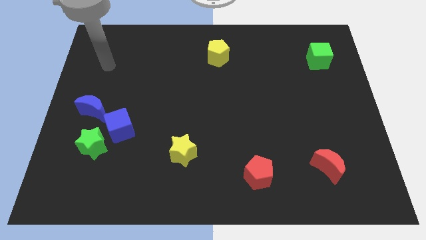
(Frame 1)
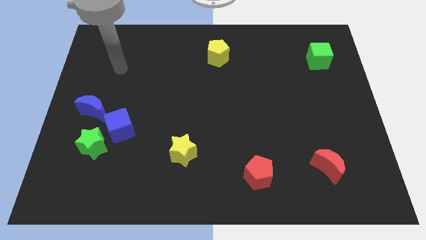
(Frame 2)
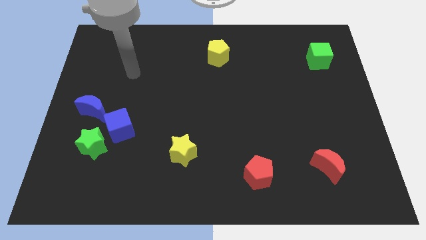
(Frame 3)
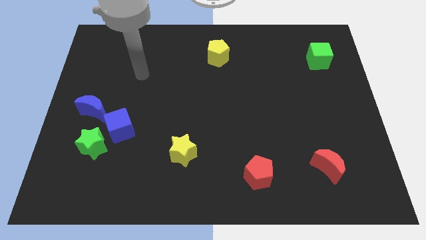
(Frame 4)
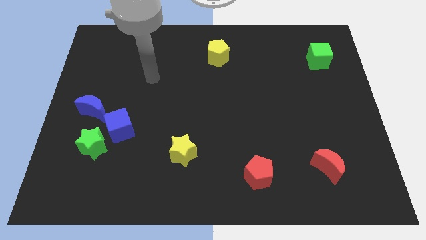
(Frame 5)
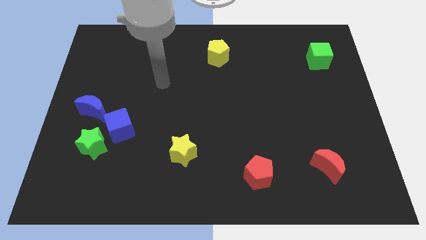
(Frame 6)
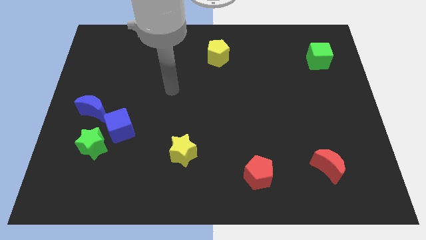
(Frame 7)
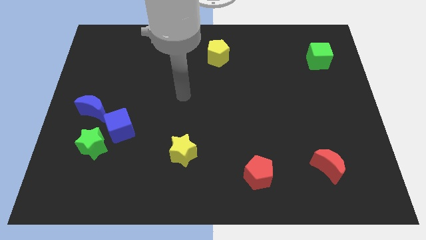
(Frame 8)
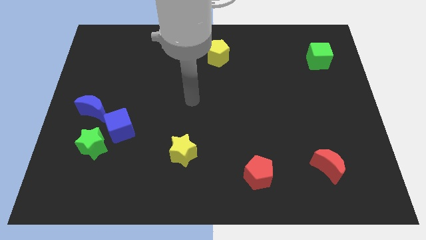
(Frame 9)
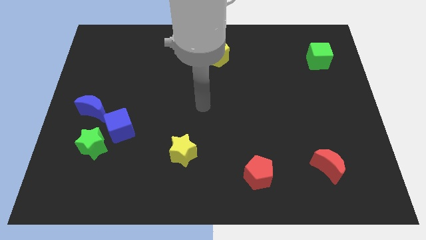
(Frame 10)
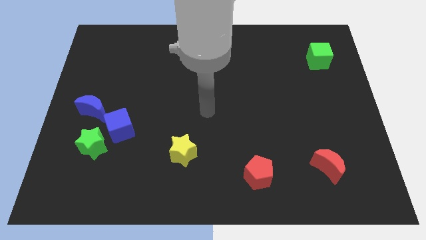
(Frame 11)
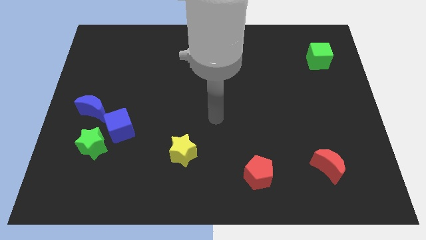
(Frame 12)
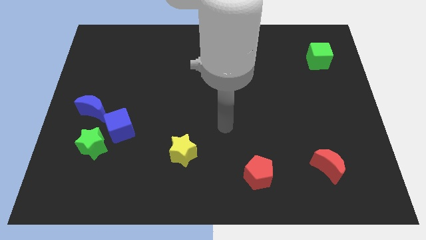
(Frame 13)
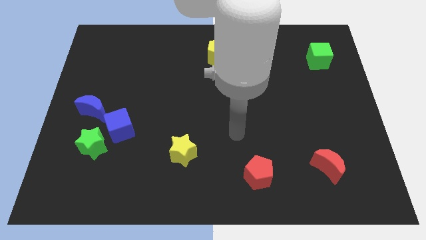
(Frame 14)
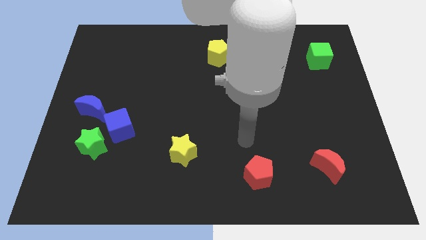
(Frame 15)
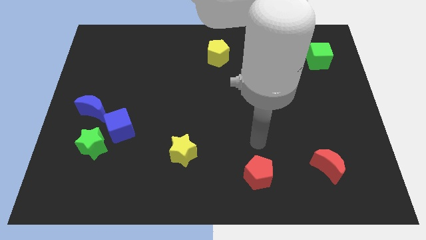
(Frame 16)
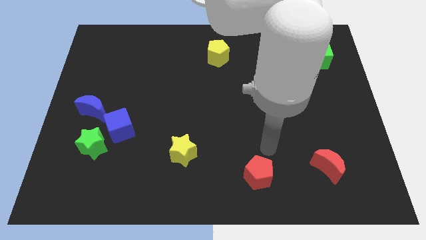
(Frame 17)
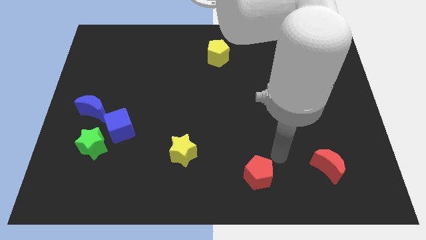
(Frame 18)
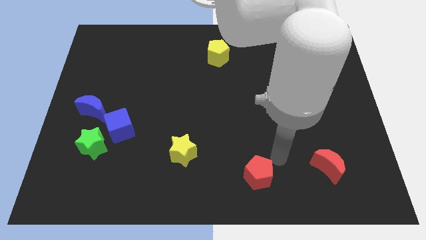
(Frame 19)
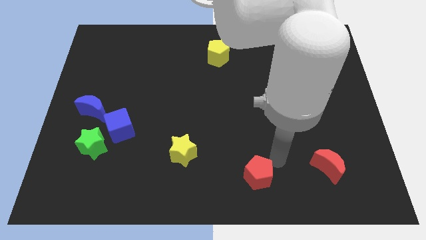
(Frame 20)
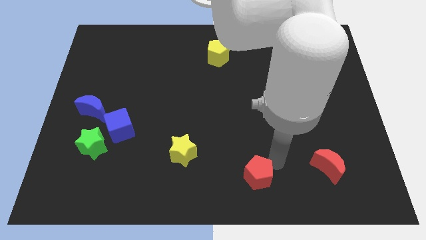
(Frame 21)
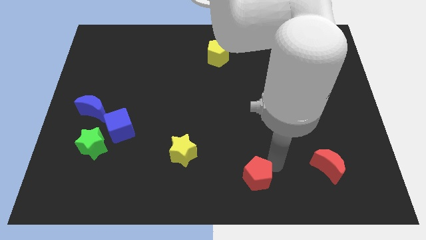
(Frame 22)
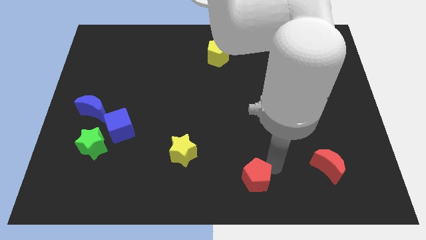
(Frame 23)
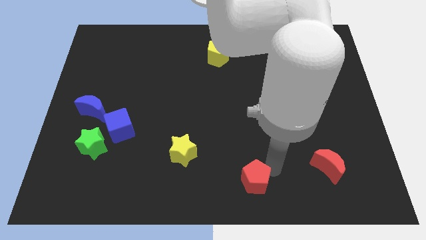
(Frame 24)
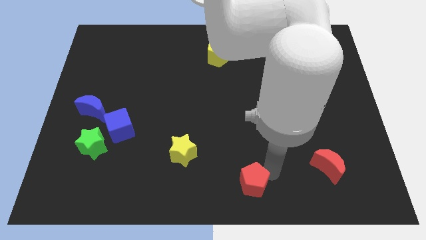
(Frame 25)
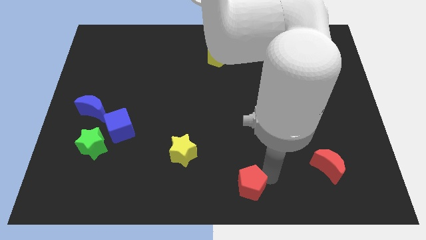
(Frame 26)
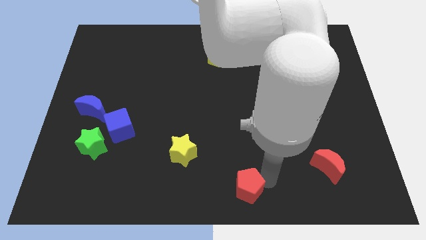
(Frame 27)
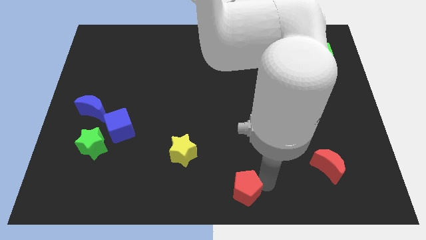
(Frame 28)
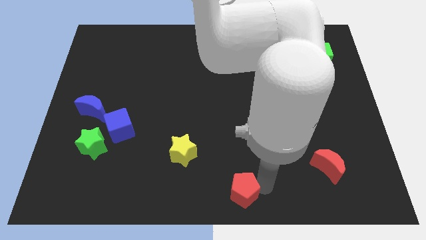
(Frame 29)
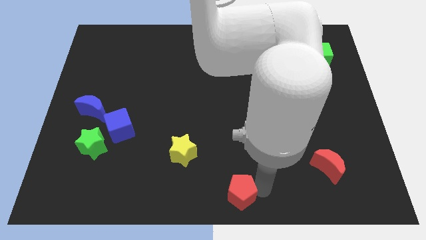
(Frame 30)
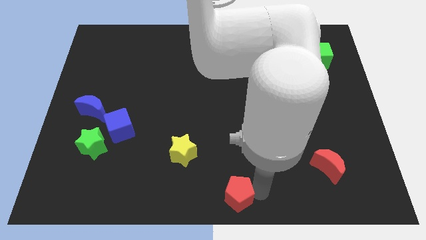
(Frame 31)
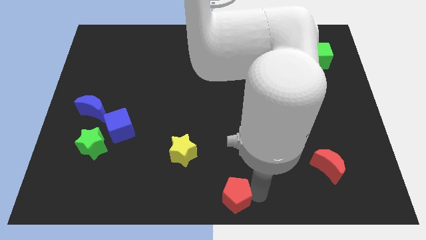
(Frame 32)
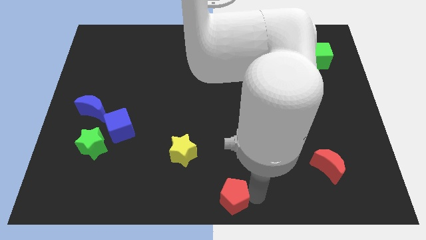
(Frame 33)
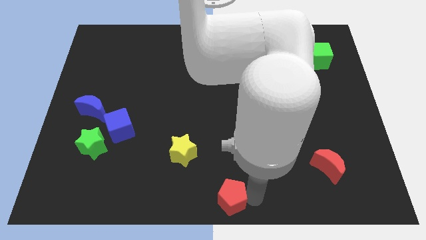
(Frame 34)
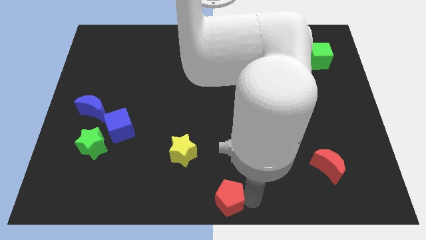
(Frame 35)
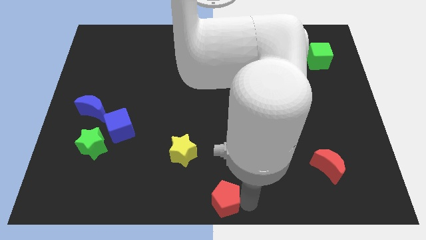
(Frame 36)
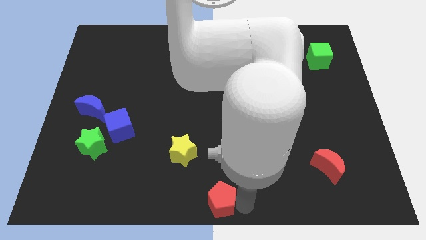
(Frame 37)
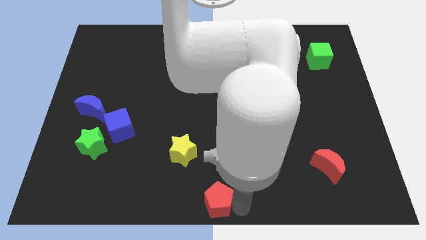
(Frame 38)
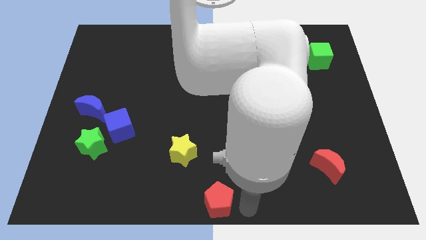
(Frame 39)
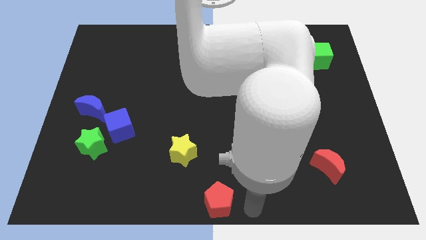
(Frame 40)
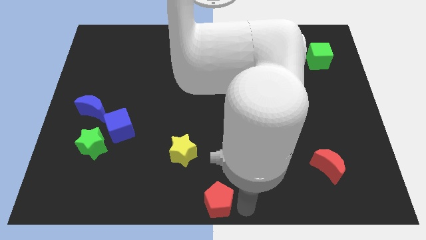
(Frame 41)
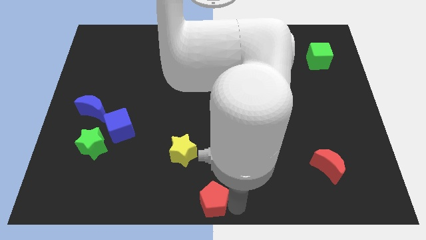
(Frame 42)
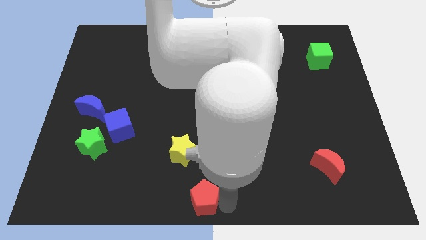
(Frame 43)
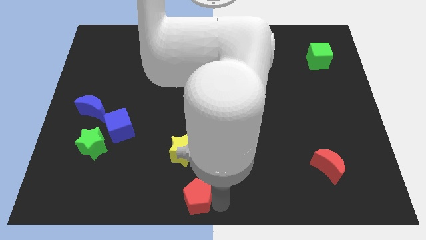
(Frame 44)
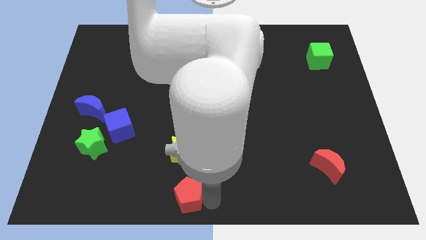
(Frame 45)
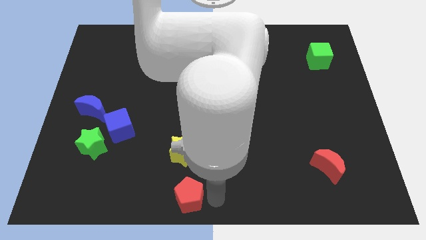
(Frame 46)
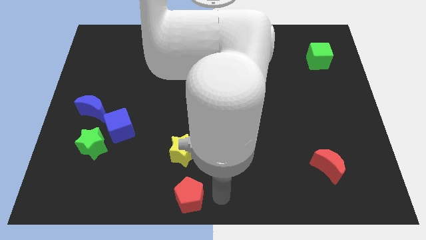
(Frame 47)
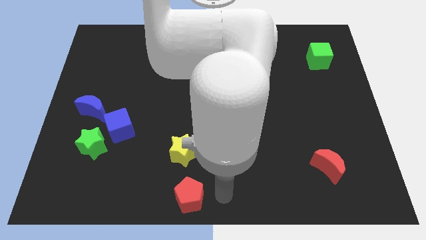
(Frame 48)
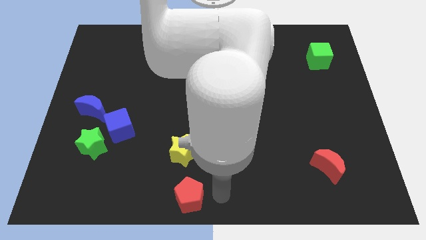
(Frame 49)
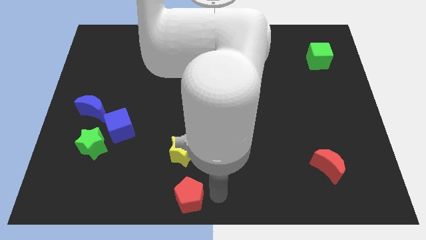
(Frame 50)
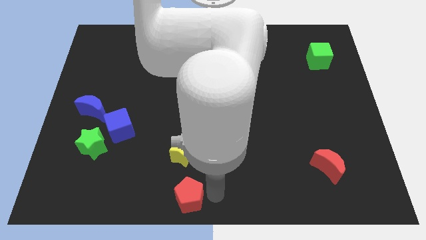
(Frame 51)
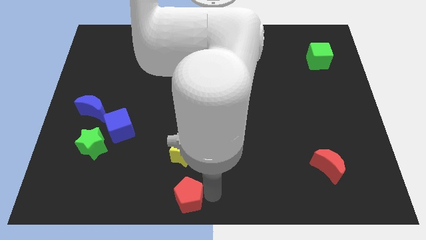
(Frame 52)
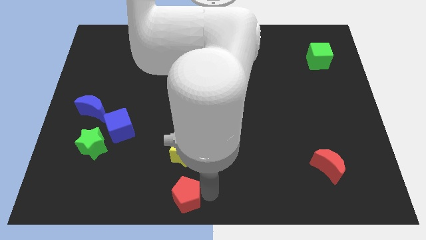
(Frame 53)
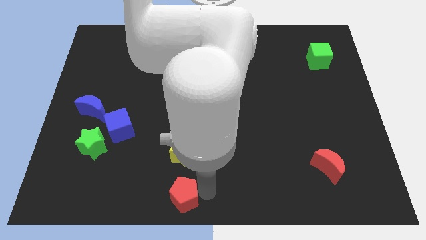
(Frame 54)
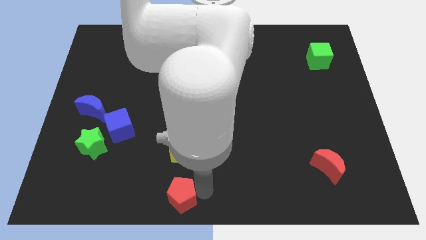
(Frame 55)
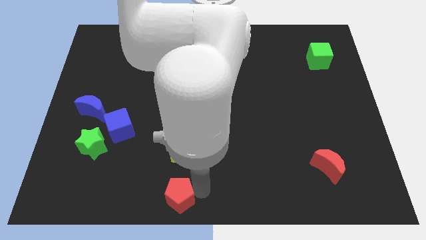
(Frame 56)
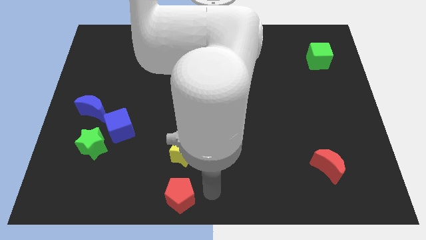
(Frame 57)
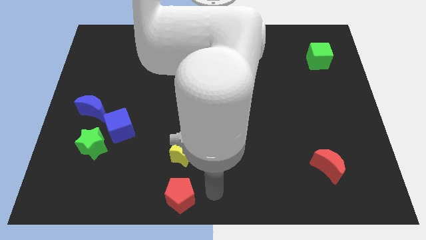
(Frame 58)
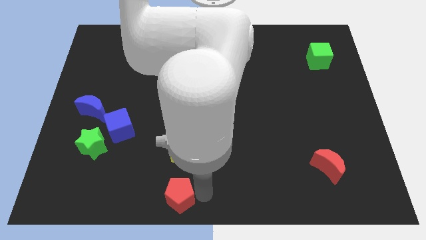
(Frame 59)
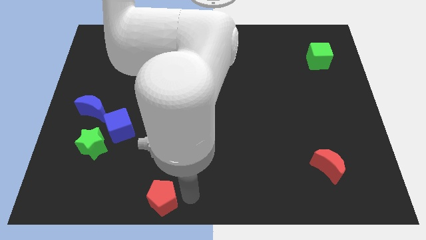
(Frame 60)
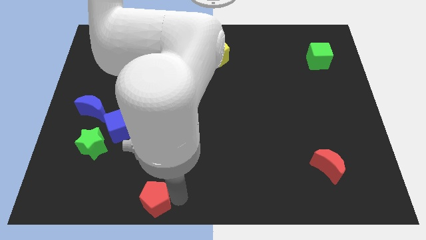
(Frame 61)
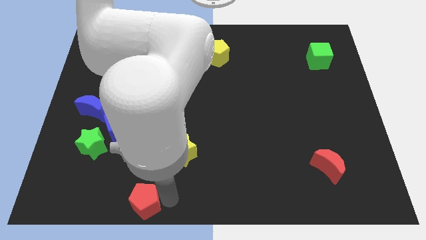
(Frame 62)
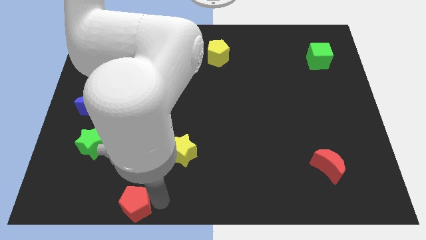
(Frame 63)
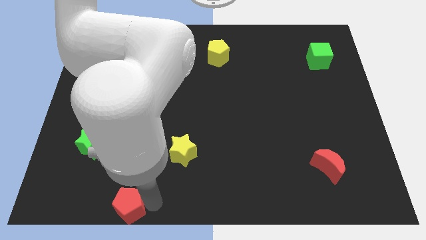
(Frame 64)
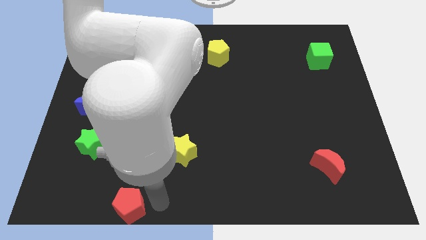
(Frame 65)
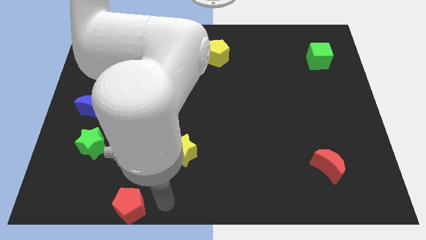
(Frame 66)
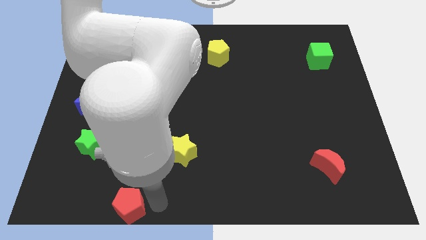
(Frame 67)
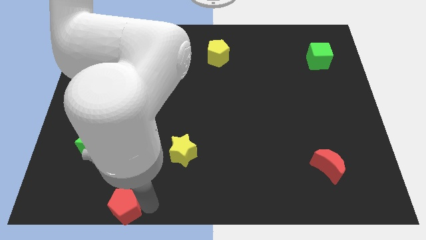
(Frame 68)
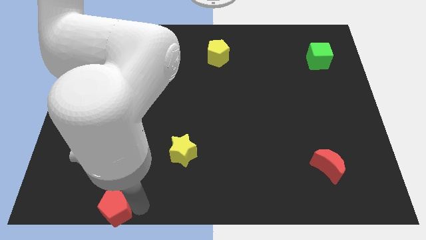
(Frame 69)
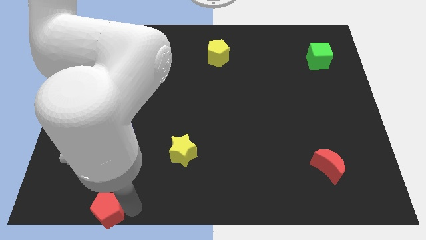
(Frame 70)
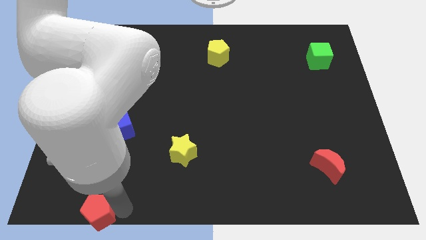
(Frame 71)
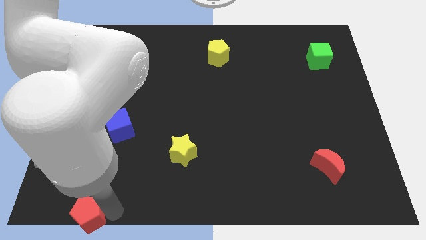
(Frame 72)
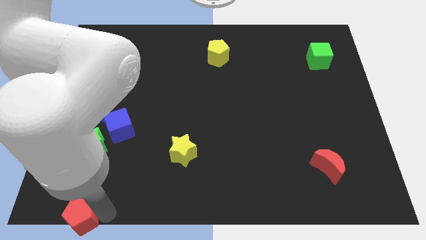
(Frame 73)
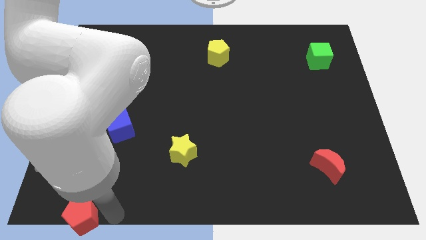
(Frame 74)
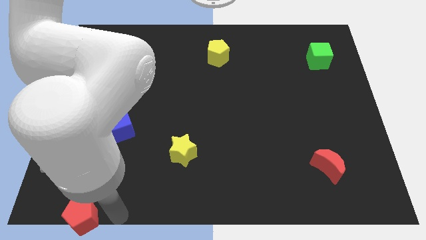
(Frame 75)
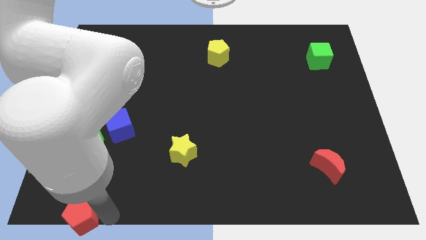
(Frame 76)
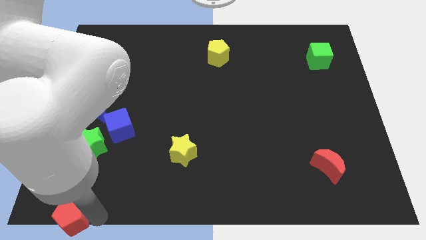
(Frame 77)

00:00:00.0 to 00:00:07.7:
move the red pentagon to the bottom left corner
